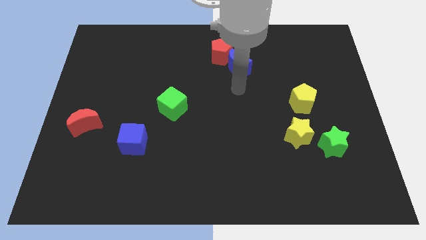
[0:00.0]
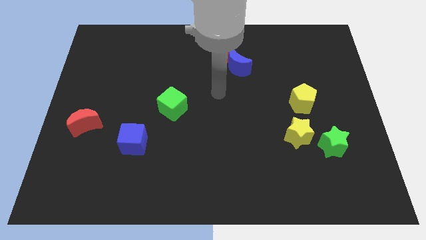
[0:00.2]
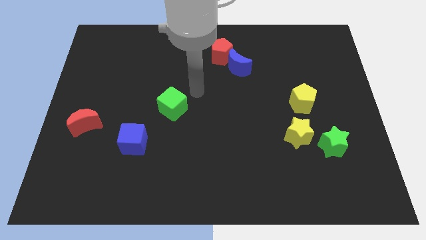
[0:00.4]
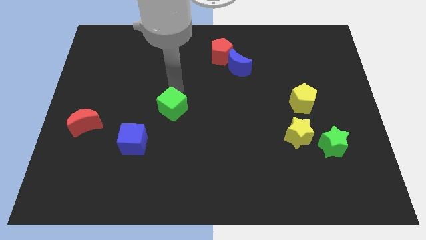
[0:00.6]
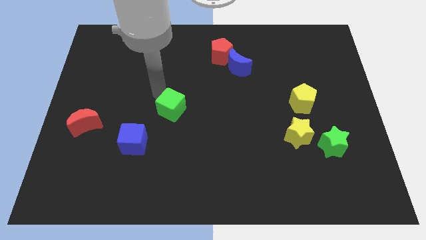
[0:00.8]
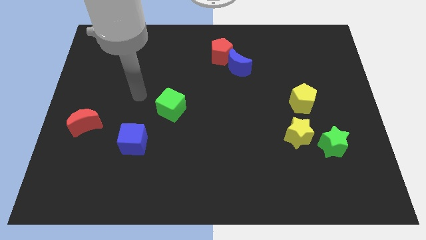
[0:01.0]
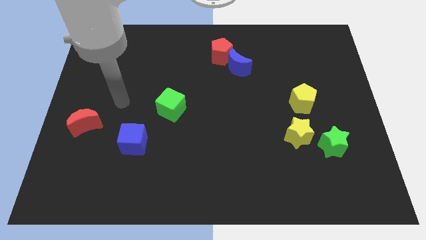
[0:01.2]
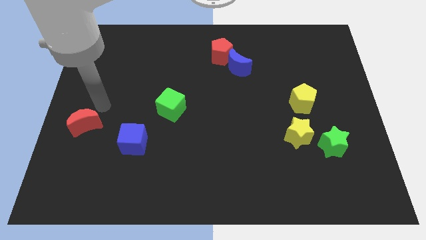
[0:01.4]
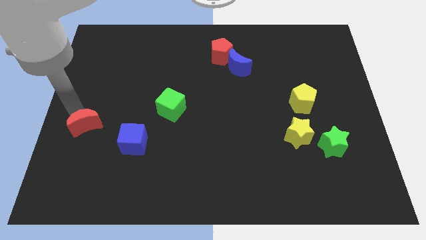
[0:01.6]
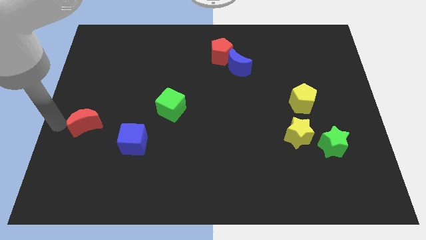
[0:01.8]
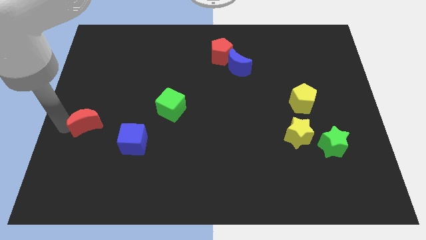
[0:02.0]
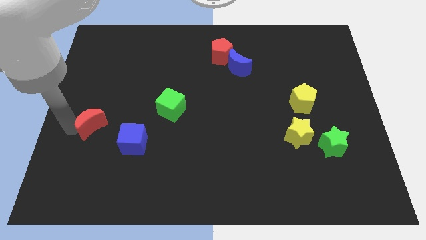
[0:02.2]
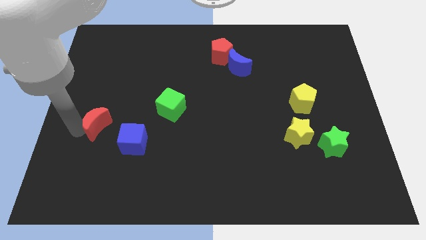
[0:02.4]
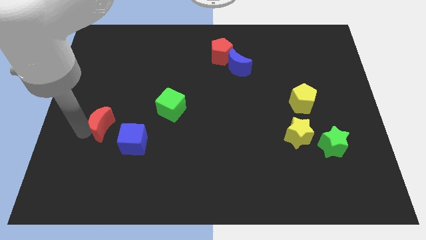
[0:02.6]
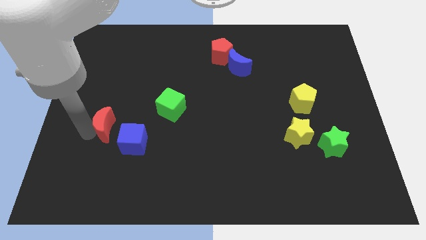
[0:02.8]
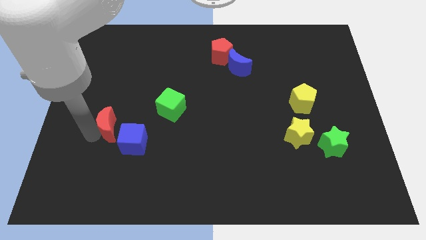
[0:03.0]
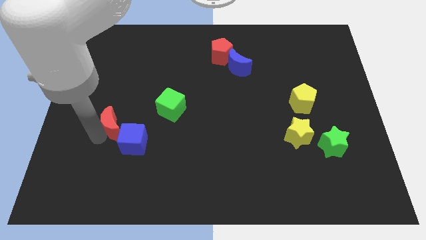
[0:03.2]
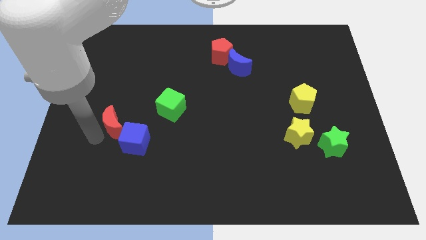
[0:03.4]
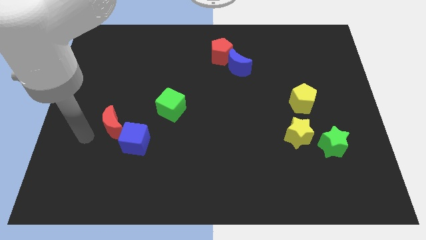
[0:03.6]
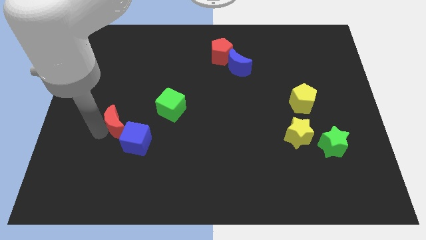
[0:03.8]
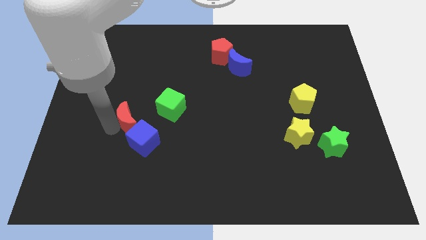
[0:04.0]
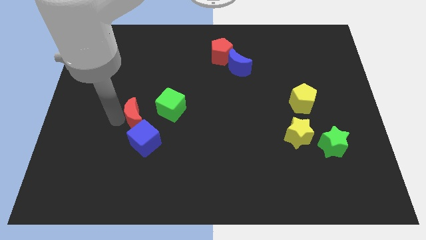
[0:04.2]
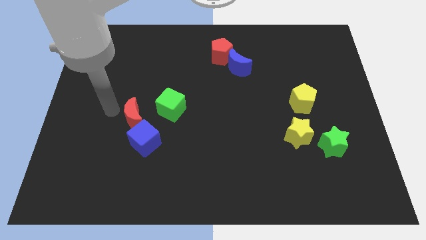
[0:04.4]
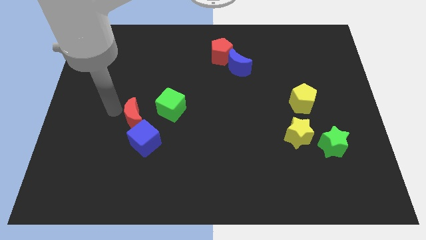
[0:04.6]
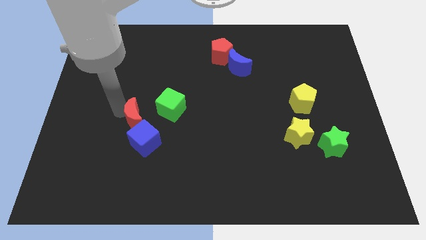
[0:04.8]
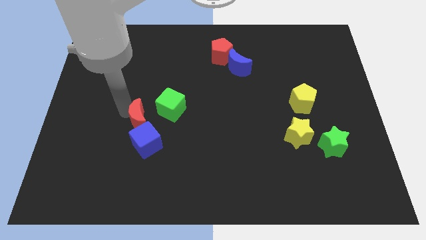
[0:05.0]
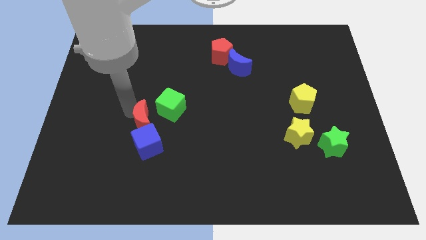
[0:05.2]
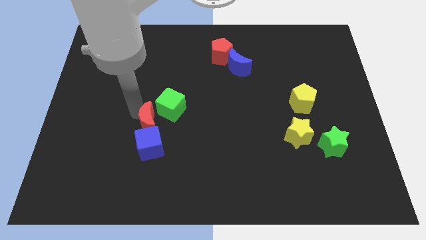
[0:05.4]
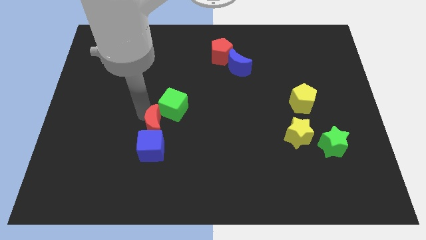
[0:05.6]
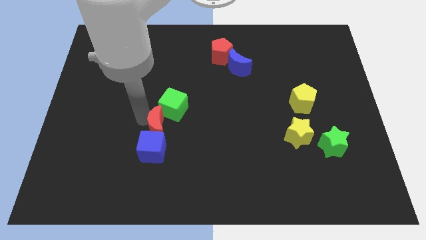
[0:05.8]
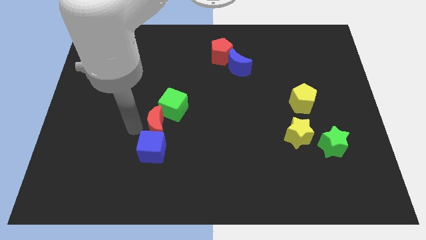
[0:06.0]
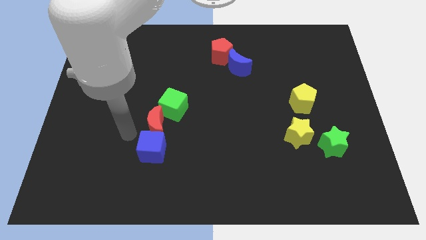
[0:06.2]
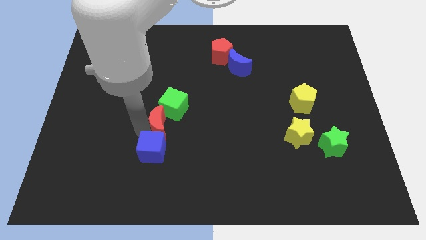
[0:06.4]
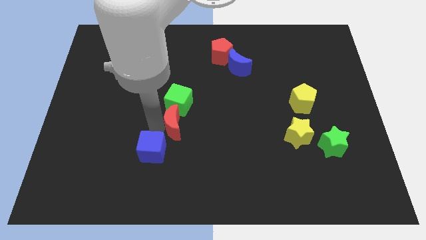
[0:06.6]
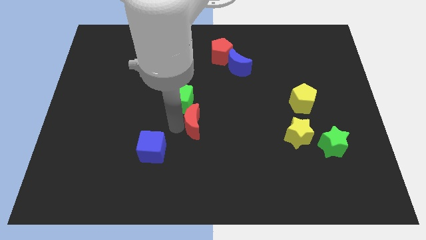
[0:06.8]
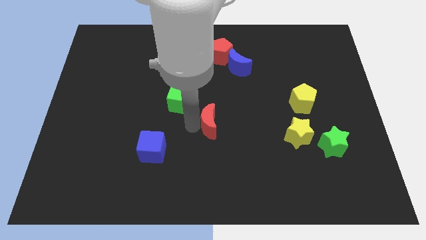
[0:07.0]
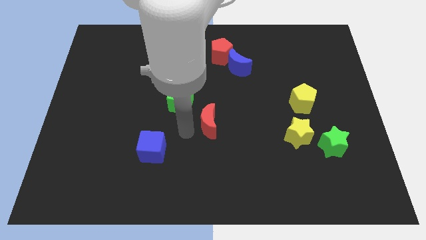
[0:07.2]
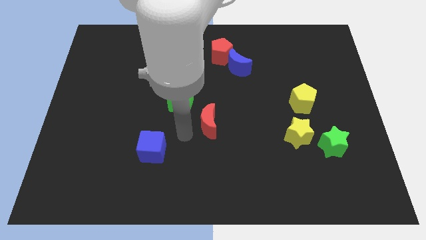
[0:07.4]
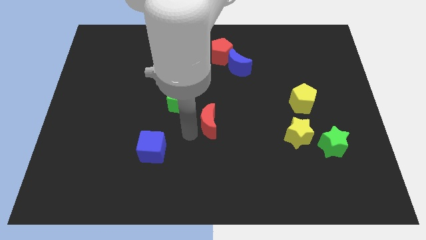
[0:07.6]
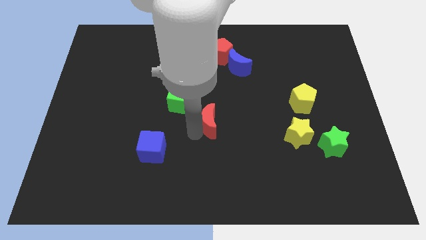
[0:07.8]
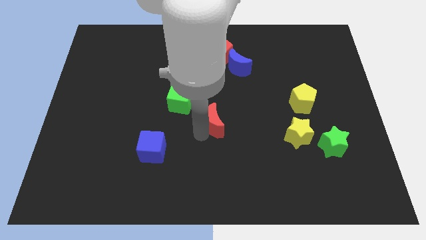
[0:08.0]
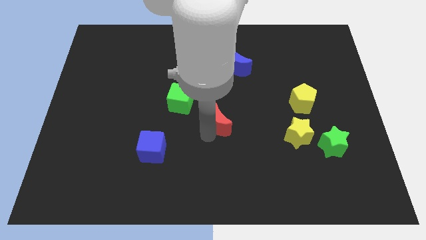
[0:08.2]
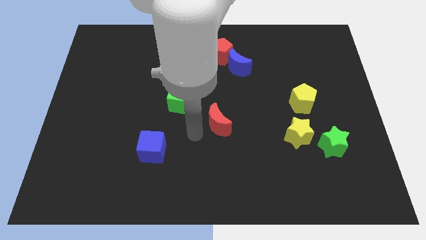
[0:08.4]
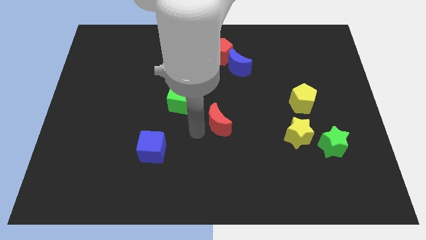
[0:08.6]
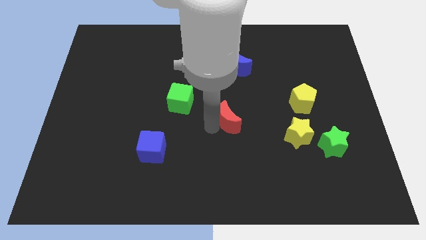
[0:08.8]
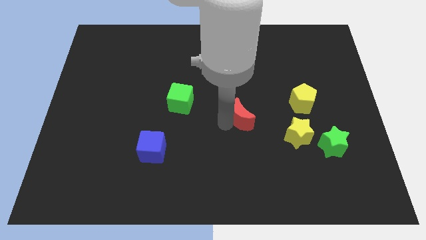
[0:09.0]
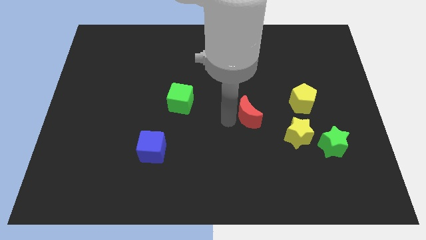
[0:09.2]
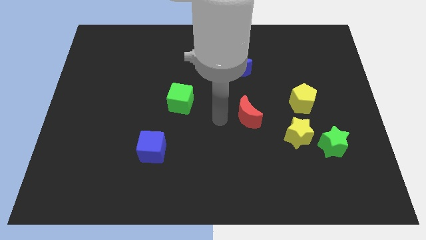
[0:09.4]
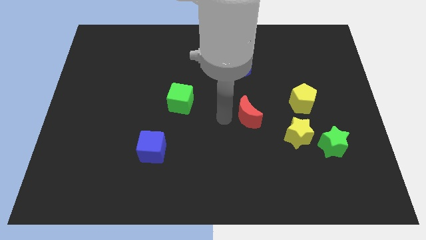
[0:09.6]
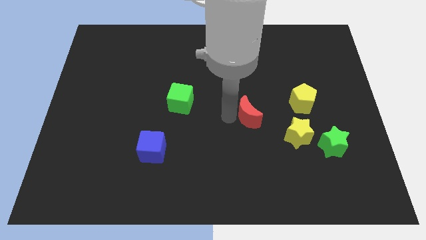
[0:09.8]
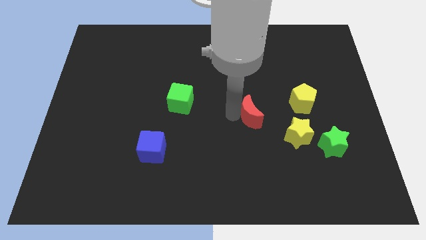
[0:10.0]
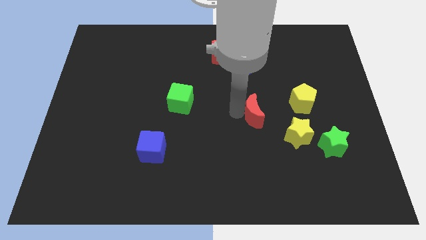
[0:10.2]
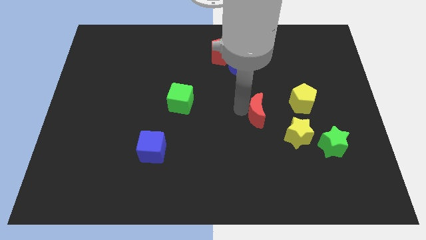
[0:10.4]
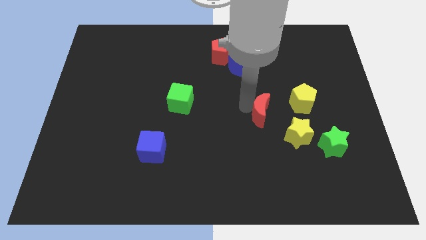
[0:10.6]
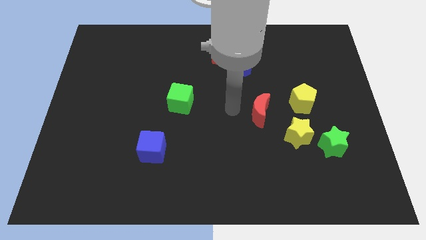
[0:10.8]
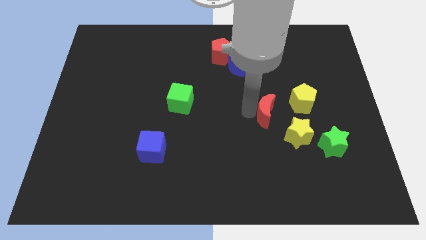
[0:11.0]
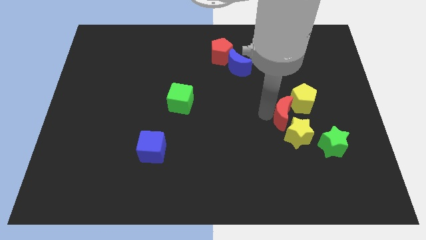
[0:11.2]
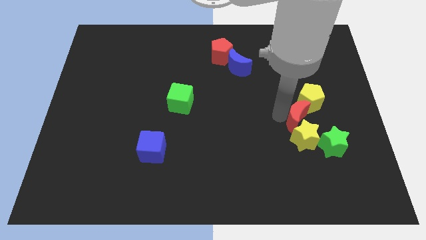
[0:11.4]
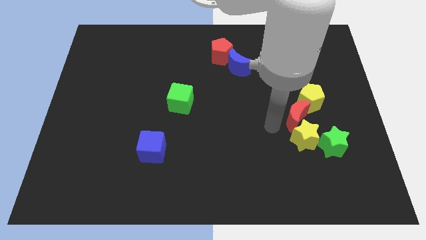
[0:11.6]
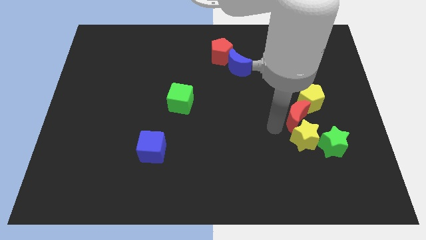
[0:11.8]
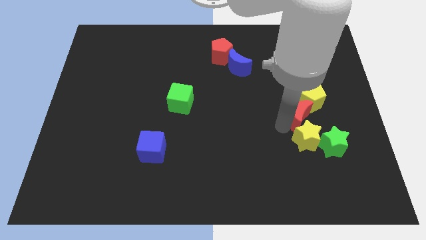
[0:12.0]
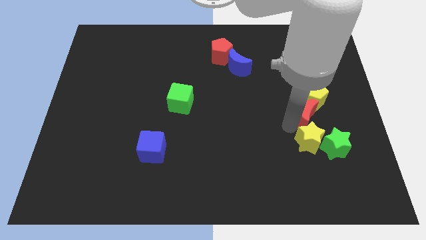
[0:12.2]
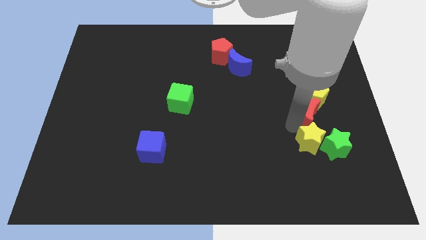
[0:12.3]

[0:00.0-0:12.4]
move the red moon to the top of the green star
